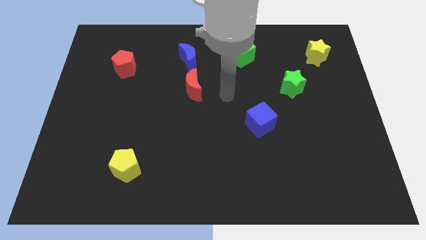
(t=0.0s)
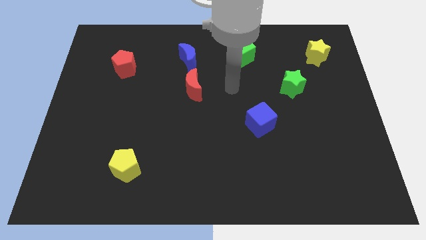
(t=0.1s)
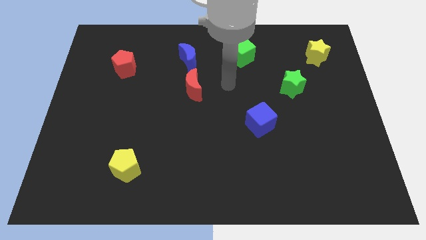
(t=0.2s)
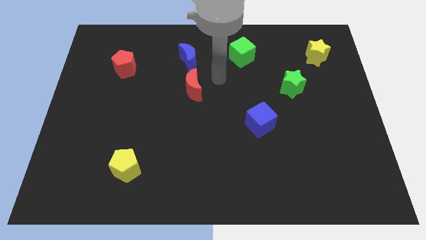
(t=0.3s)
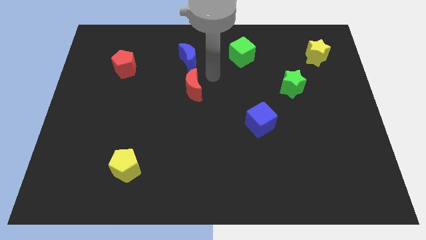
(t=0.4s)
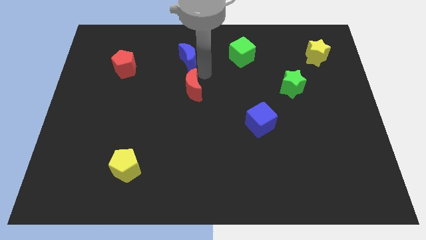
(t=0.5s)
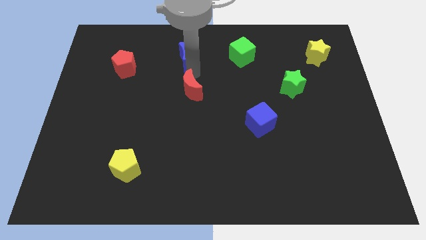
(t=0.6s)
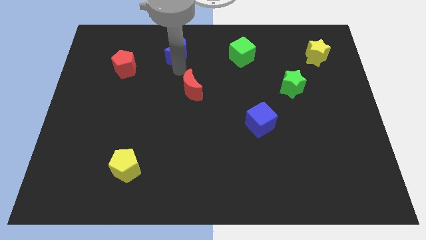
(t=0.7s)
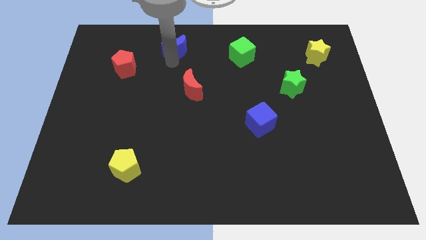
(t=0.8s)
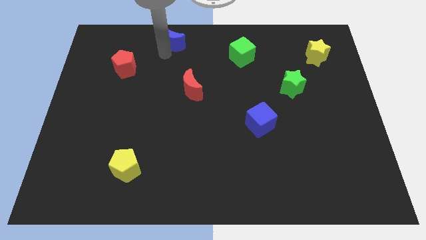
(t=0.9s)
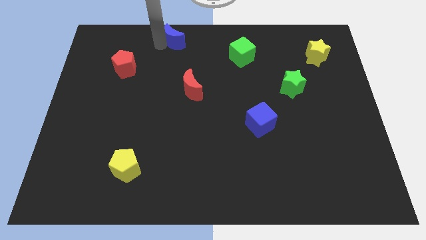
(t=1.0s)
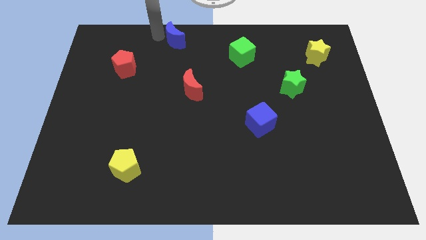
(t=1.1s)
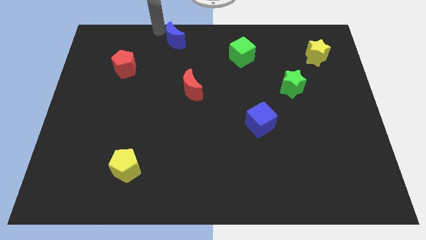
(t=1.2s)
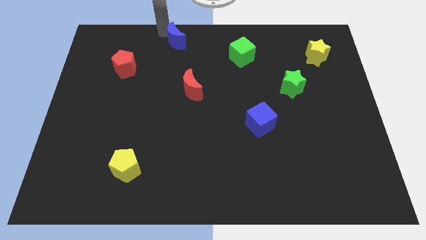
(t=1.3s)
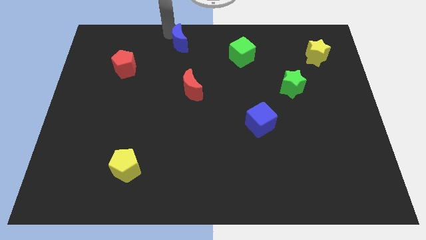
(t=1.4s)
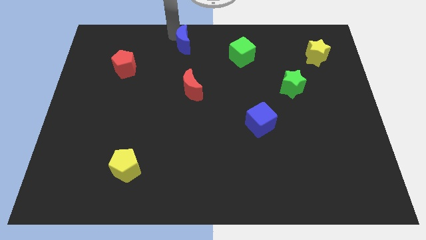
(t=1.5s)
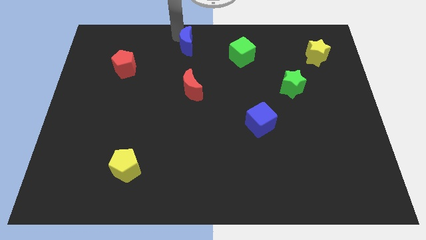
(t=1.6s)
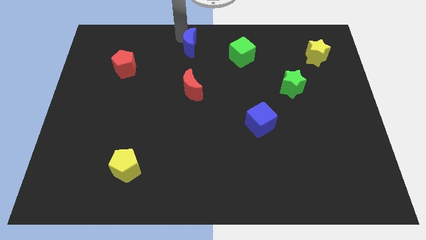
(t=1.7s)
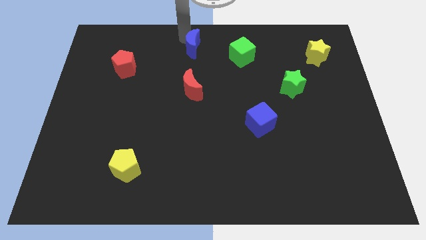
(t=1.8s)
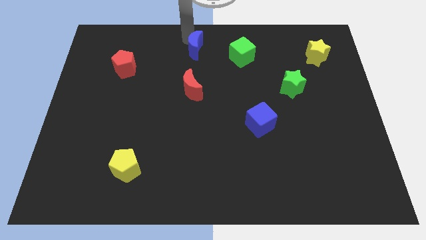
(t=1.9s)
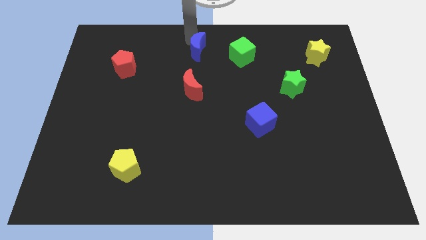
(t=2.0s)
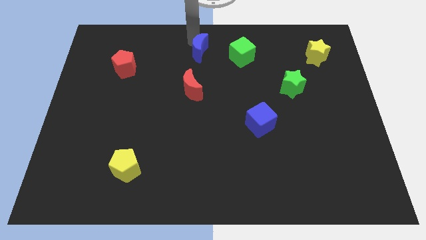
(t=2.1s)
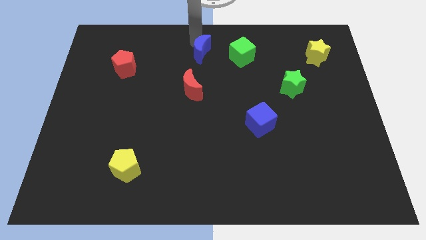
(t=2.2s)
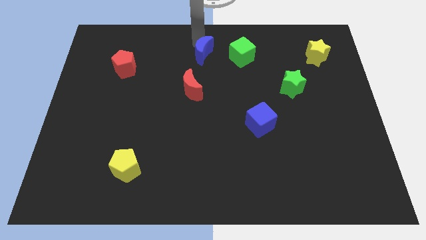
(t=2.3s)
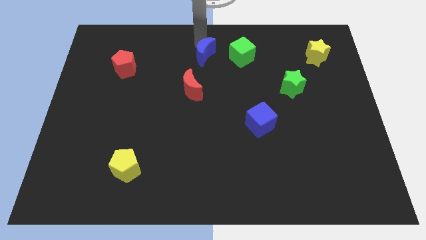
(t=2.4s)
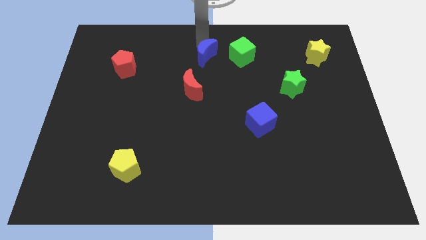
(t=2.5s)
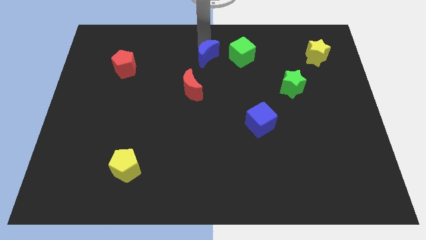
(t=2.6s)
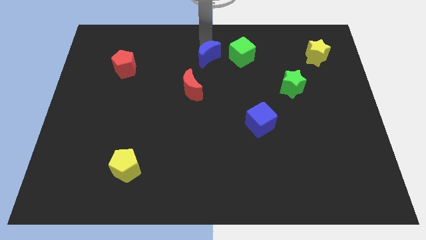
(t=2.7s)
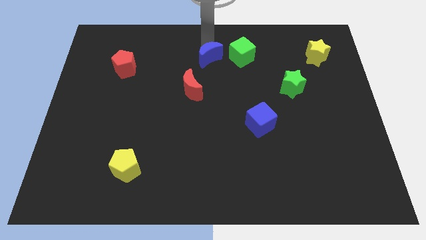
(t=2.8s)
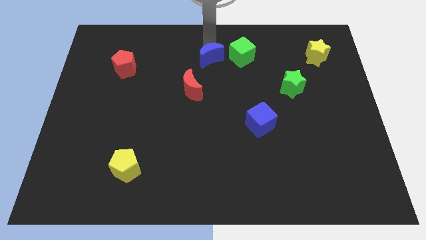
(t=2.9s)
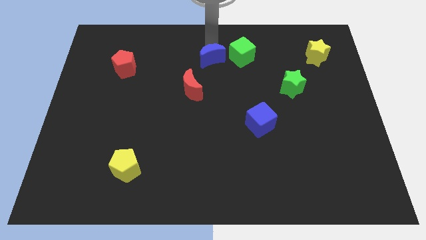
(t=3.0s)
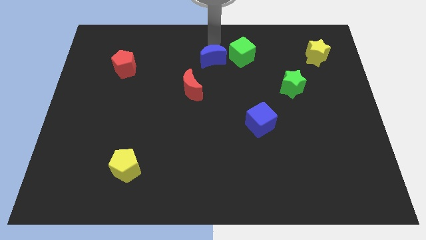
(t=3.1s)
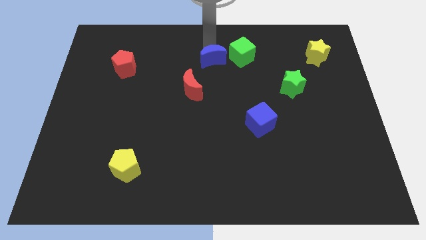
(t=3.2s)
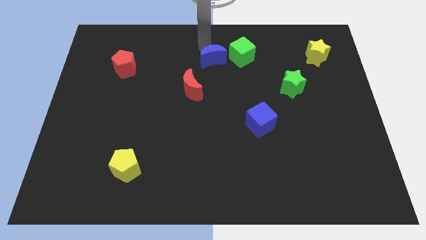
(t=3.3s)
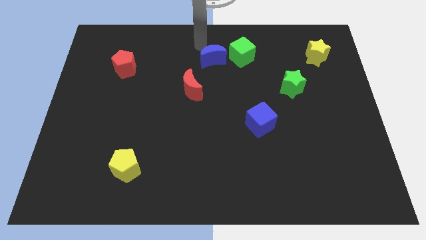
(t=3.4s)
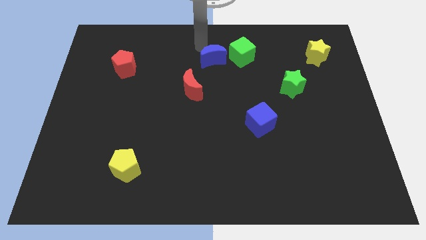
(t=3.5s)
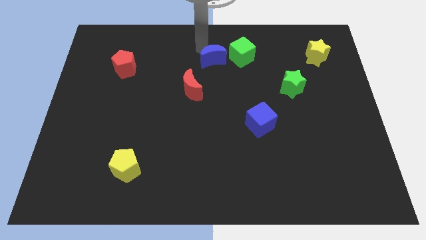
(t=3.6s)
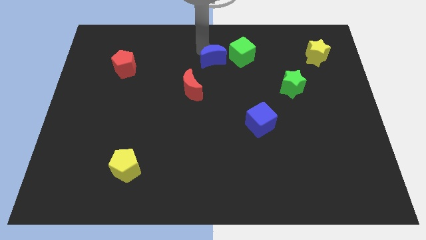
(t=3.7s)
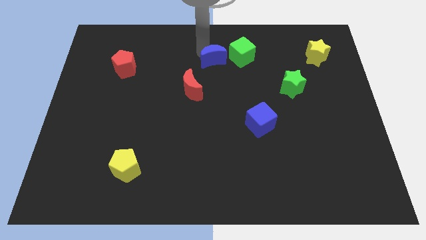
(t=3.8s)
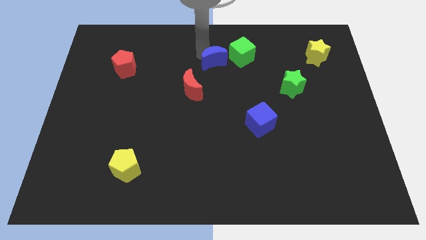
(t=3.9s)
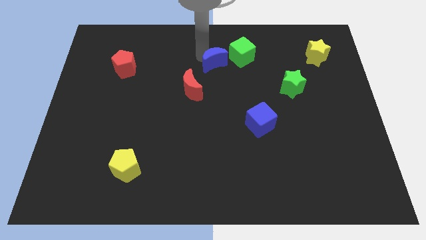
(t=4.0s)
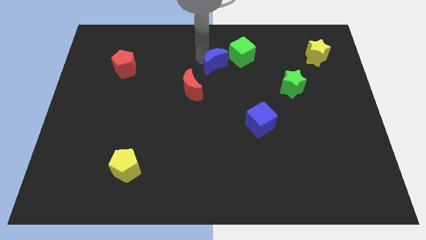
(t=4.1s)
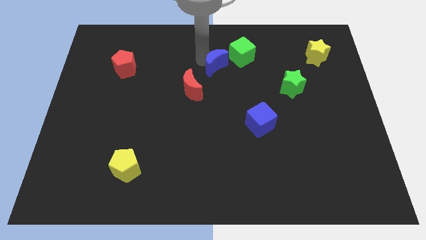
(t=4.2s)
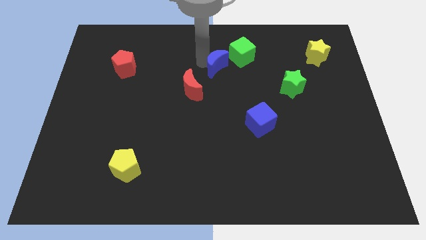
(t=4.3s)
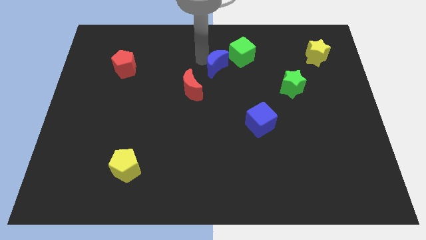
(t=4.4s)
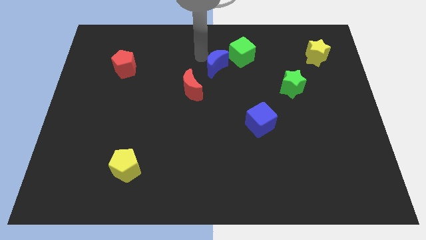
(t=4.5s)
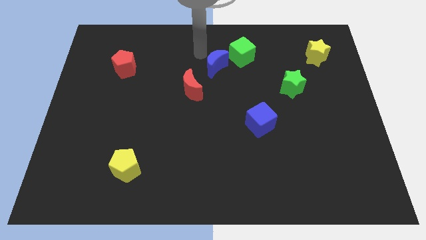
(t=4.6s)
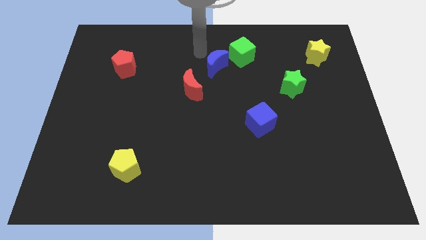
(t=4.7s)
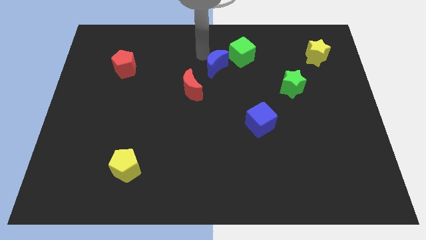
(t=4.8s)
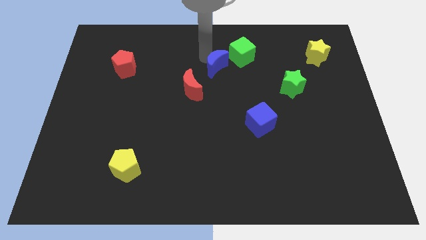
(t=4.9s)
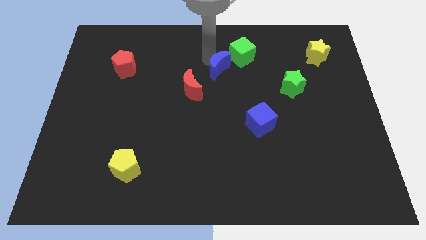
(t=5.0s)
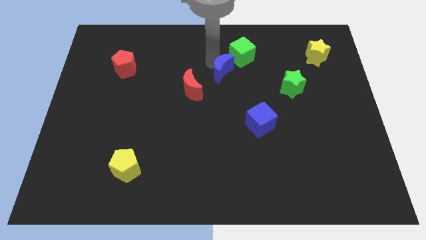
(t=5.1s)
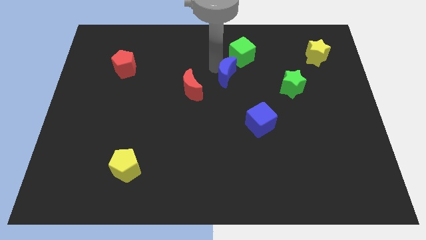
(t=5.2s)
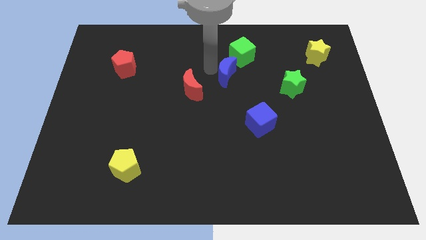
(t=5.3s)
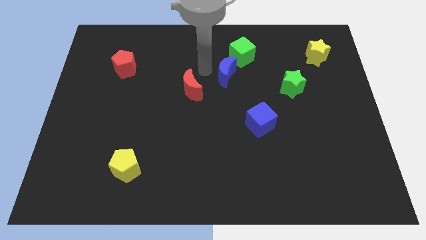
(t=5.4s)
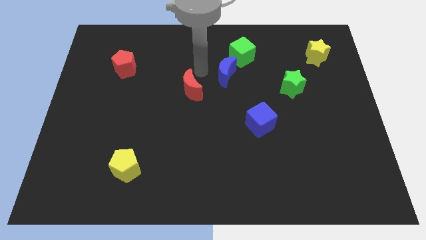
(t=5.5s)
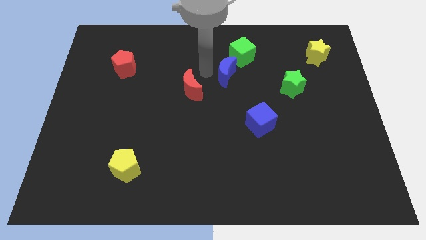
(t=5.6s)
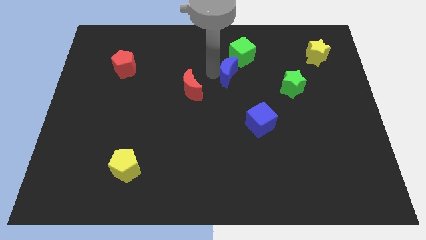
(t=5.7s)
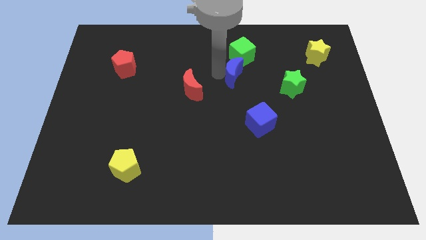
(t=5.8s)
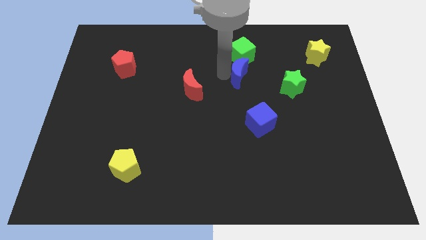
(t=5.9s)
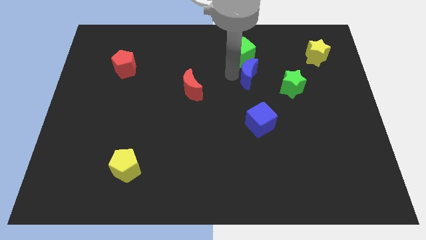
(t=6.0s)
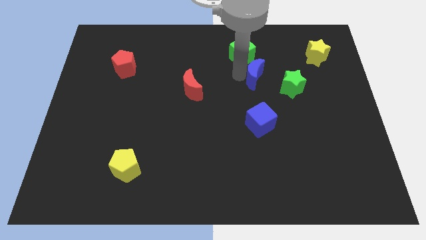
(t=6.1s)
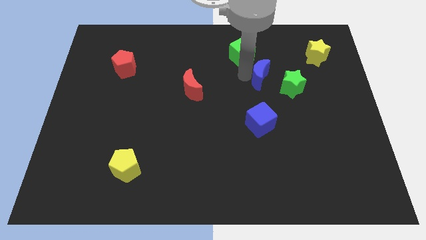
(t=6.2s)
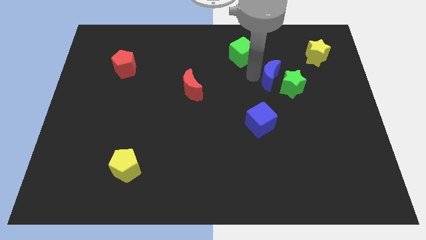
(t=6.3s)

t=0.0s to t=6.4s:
put the blue moon close to the green star

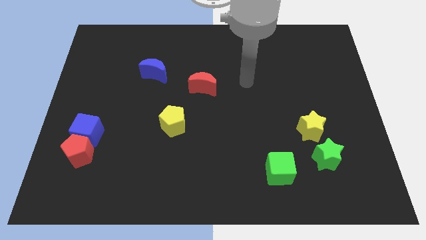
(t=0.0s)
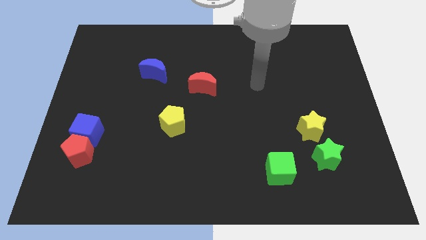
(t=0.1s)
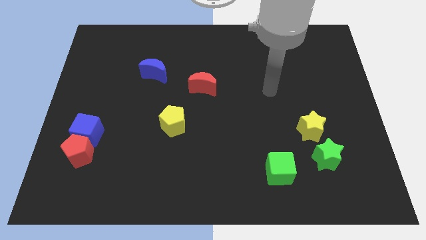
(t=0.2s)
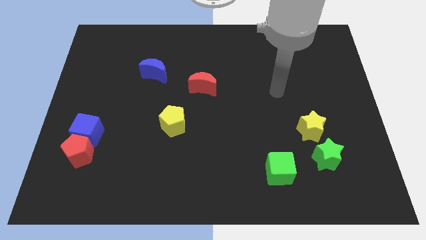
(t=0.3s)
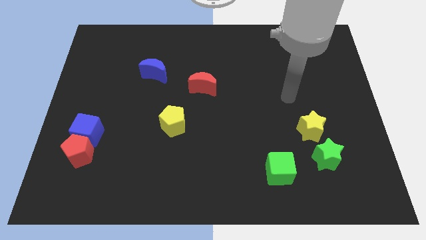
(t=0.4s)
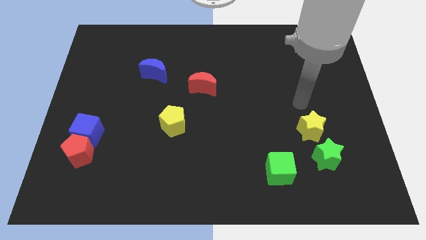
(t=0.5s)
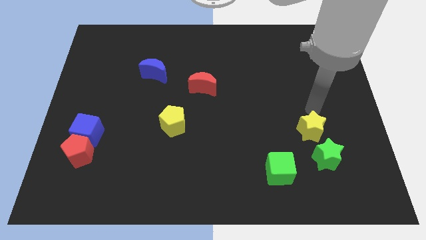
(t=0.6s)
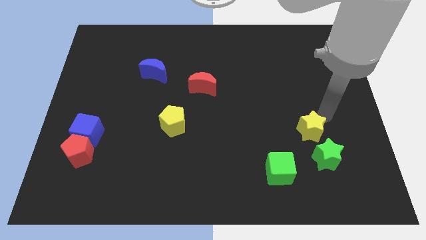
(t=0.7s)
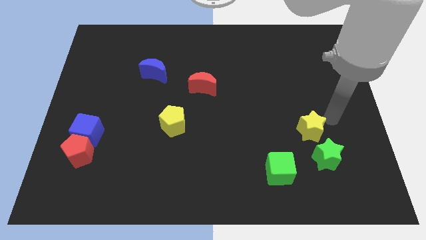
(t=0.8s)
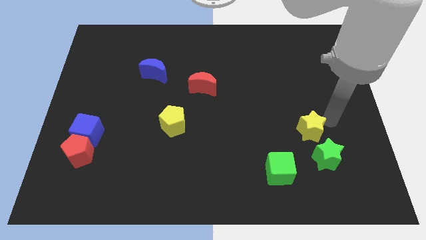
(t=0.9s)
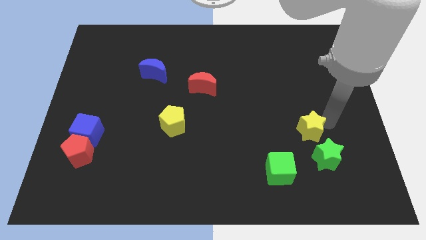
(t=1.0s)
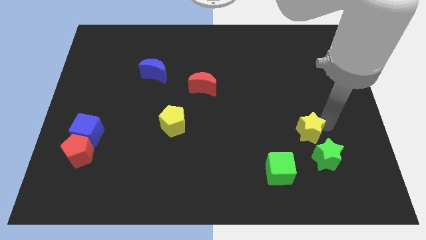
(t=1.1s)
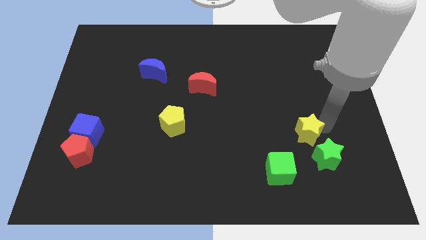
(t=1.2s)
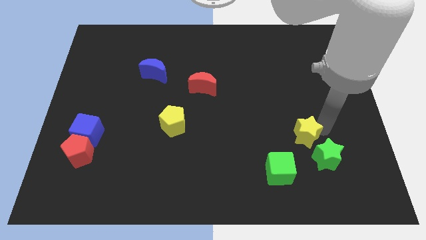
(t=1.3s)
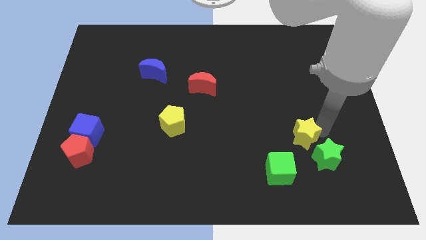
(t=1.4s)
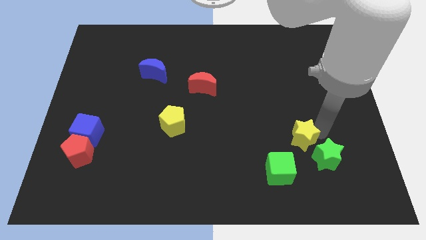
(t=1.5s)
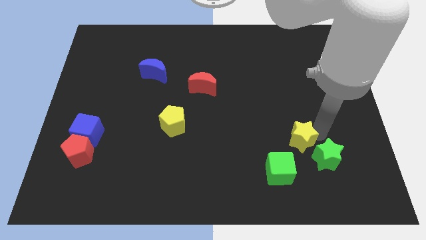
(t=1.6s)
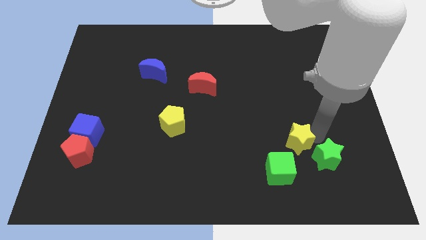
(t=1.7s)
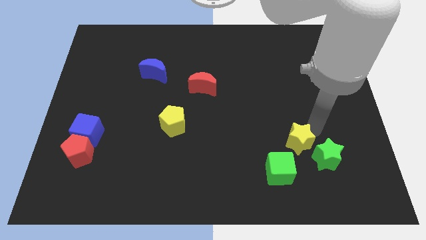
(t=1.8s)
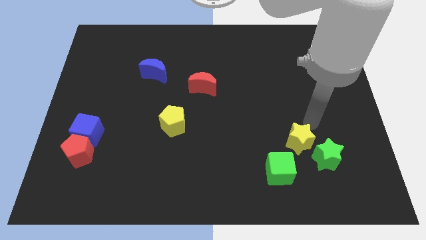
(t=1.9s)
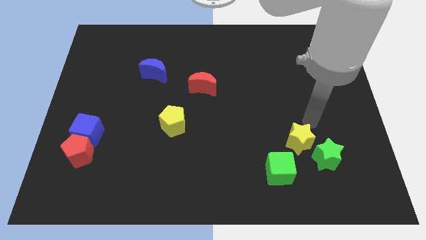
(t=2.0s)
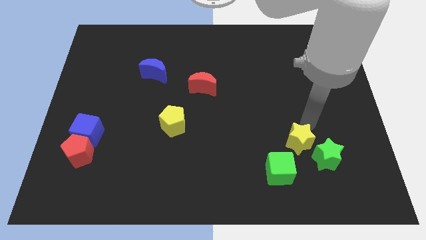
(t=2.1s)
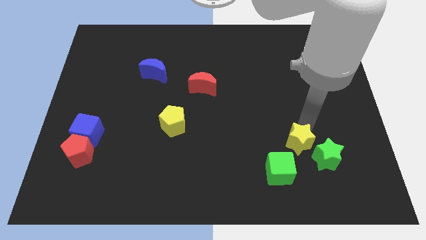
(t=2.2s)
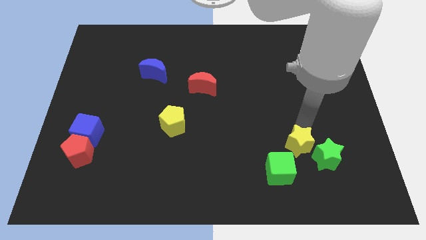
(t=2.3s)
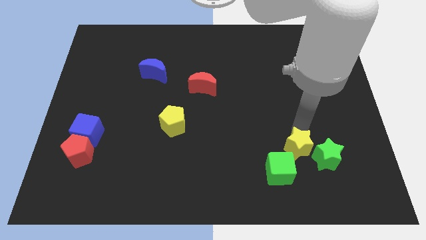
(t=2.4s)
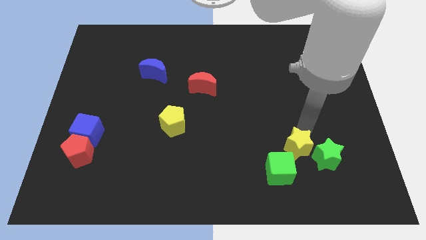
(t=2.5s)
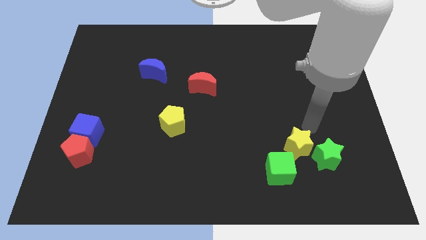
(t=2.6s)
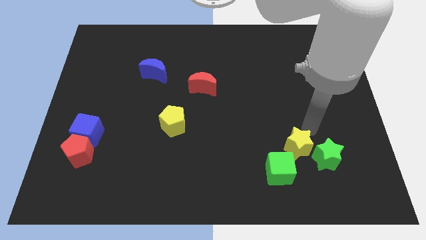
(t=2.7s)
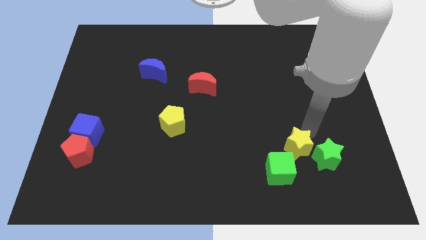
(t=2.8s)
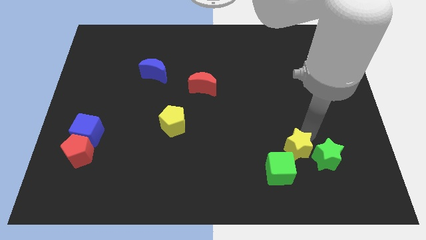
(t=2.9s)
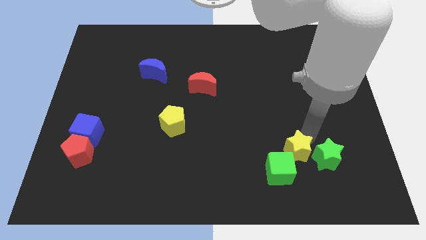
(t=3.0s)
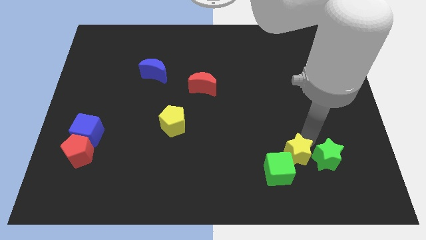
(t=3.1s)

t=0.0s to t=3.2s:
put the yellow star to the green cube
